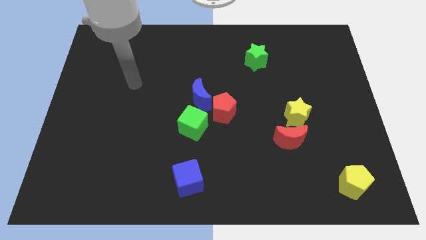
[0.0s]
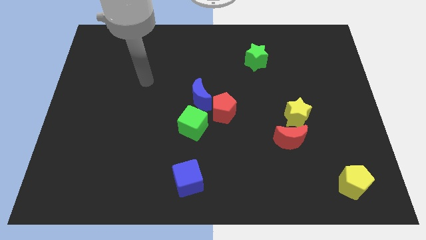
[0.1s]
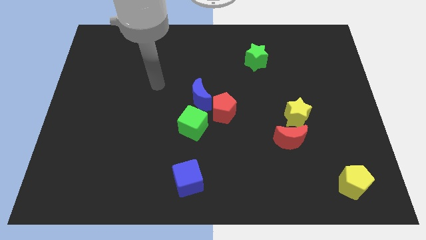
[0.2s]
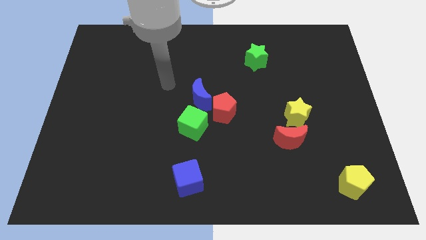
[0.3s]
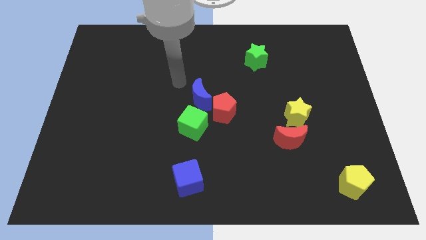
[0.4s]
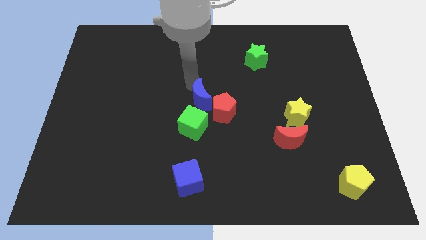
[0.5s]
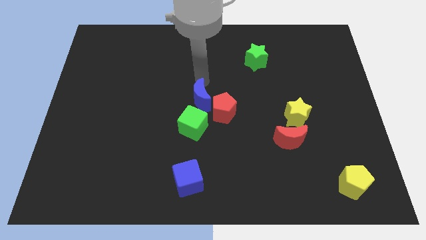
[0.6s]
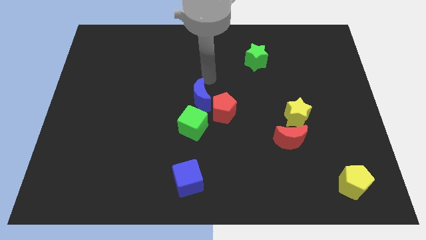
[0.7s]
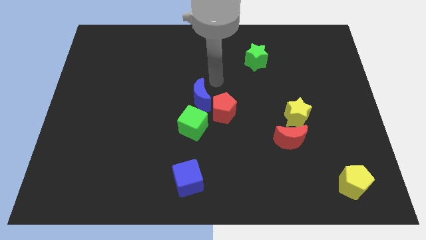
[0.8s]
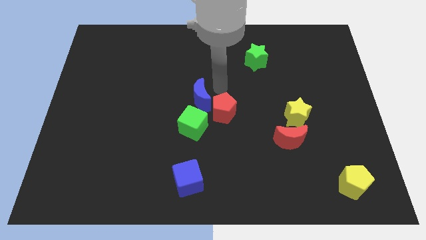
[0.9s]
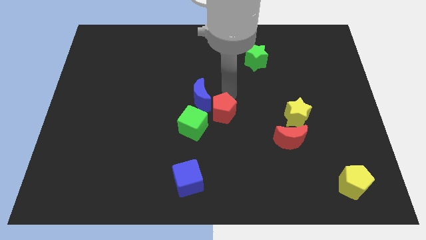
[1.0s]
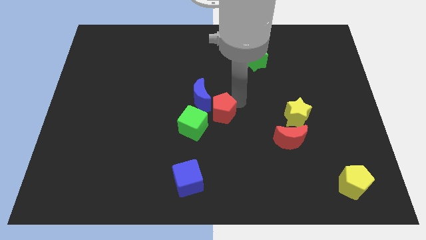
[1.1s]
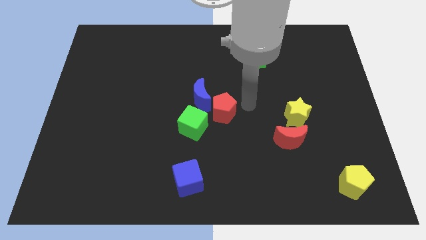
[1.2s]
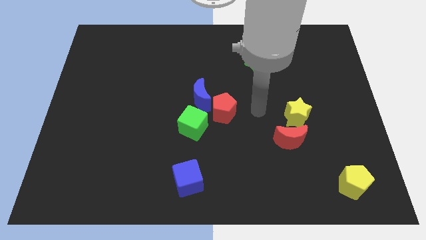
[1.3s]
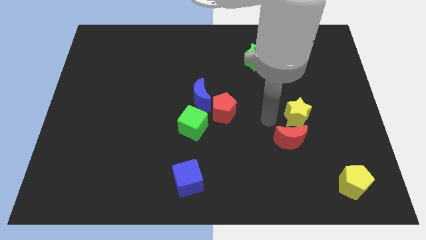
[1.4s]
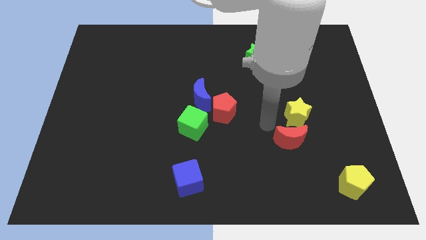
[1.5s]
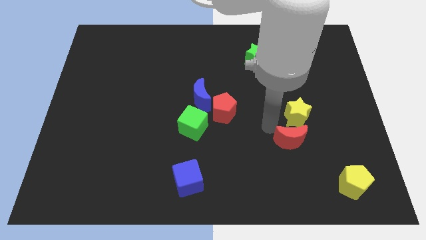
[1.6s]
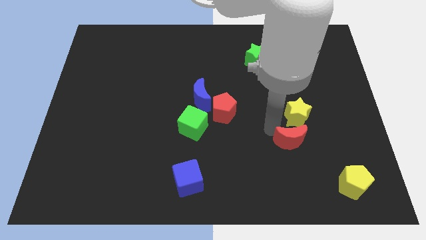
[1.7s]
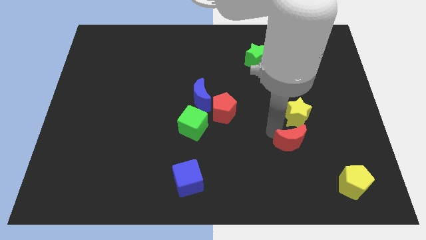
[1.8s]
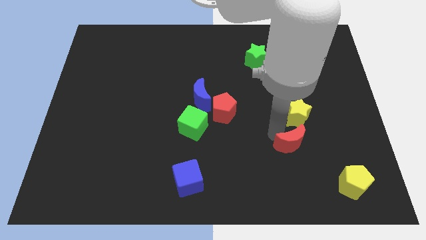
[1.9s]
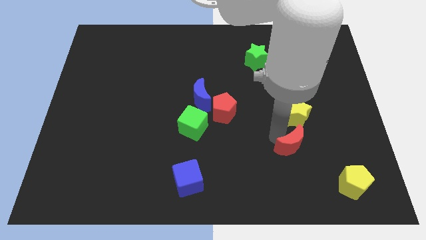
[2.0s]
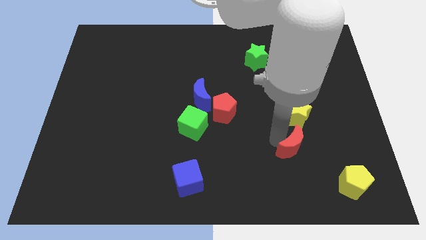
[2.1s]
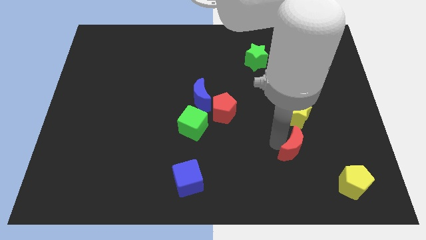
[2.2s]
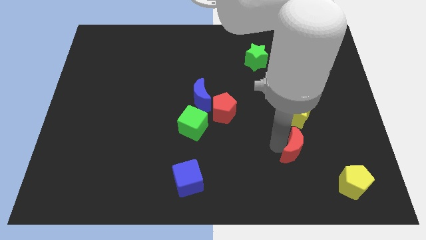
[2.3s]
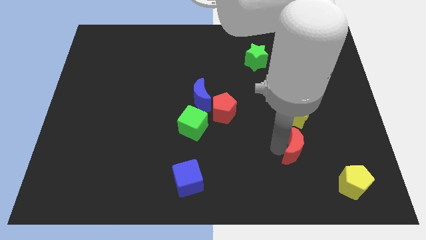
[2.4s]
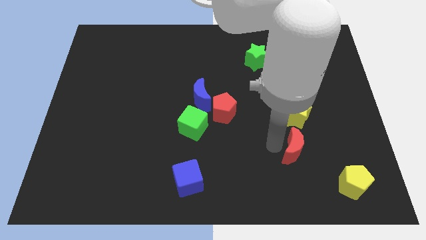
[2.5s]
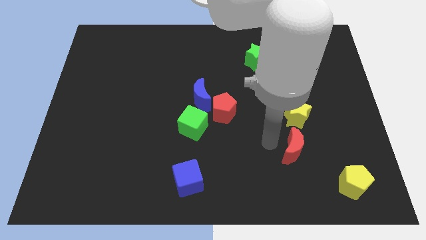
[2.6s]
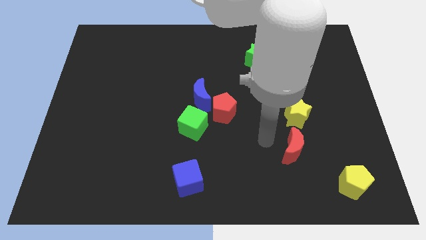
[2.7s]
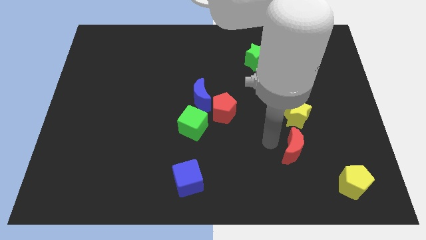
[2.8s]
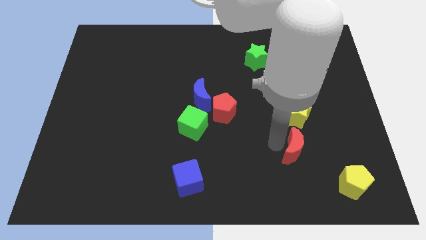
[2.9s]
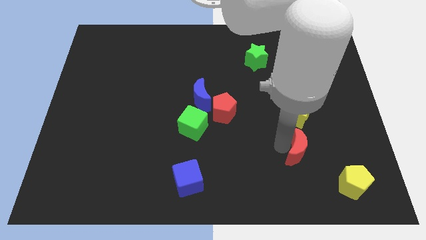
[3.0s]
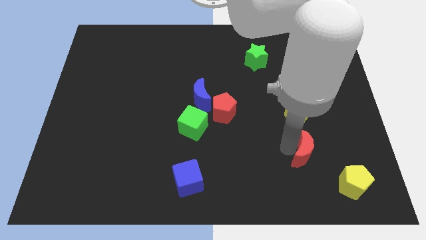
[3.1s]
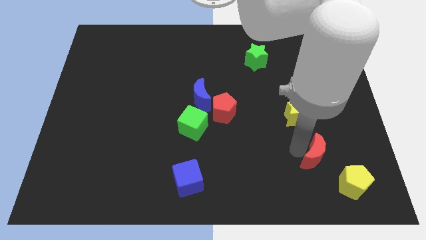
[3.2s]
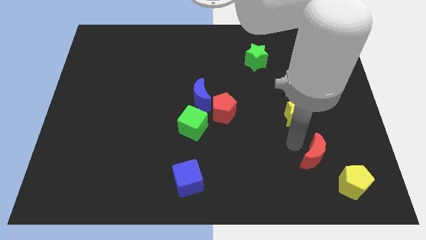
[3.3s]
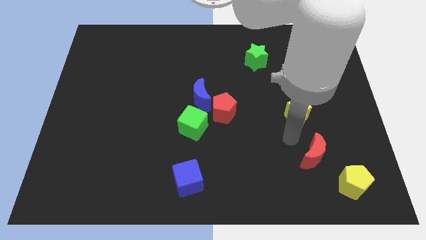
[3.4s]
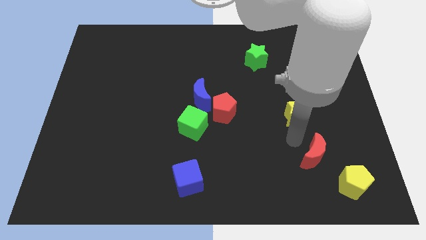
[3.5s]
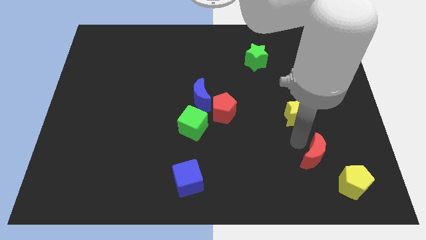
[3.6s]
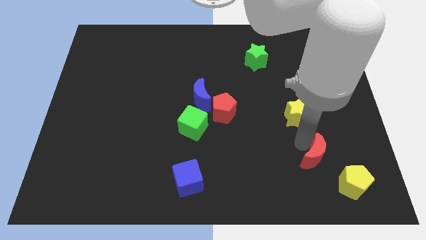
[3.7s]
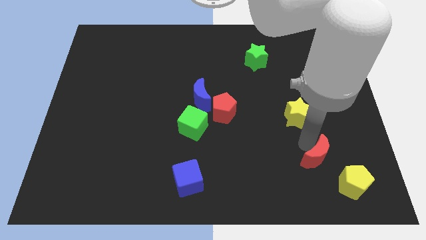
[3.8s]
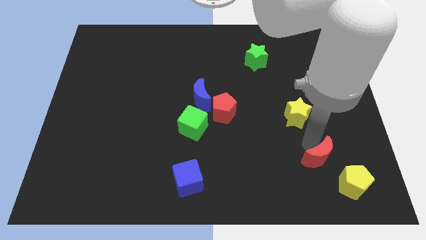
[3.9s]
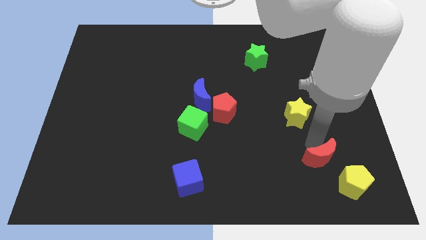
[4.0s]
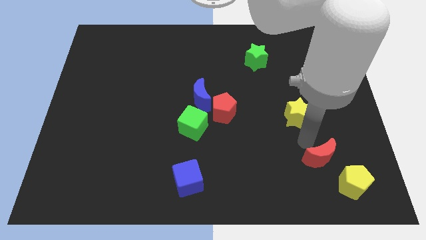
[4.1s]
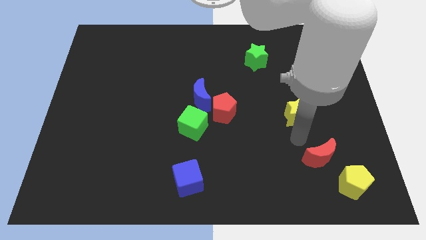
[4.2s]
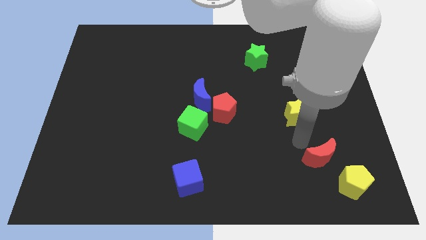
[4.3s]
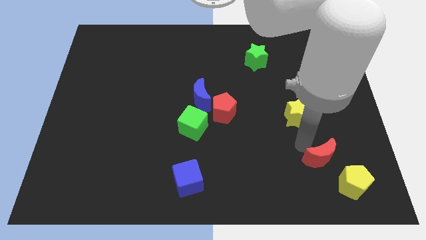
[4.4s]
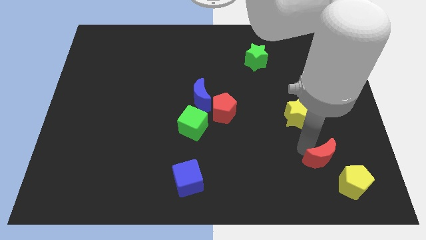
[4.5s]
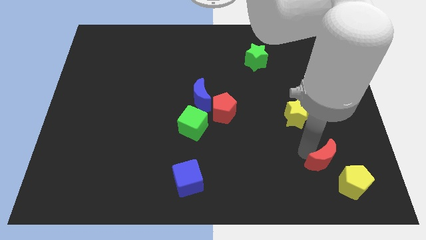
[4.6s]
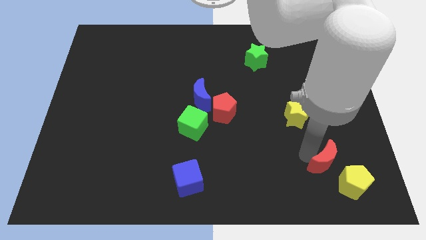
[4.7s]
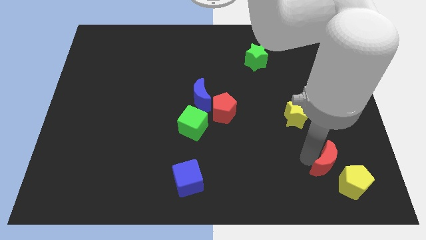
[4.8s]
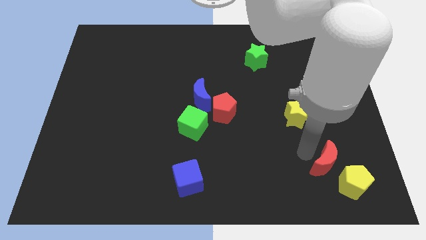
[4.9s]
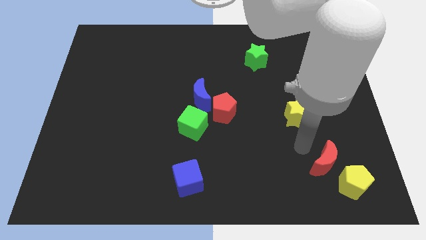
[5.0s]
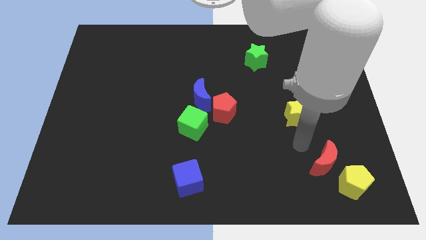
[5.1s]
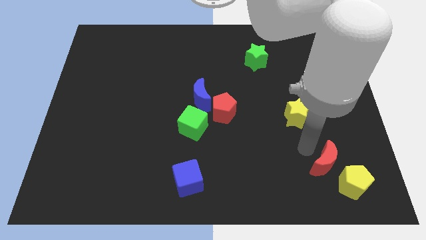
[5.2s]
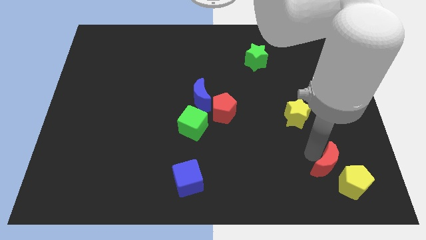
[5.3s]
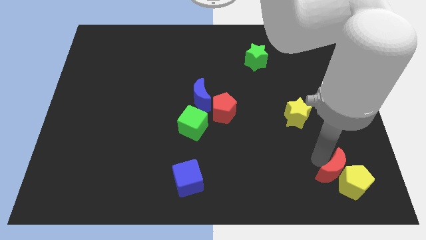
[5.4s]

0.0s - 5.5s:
slide the red moon next to the yellow pentagon

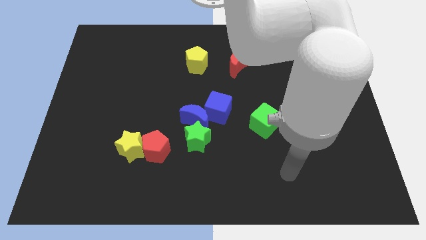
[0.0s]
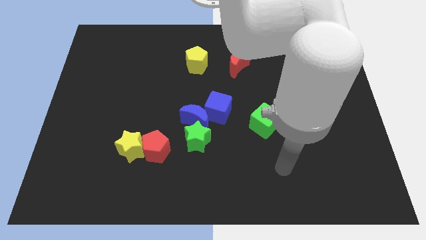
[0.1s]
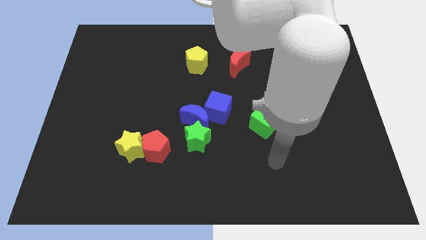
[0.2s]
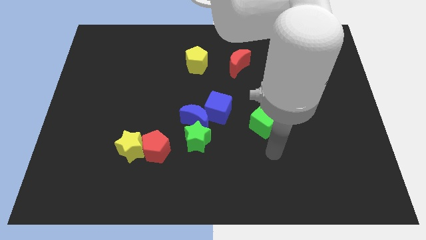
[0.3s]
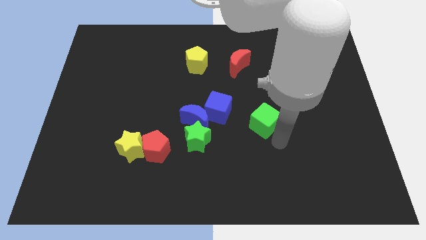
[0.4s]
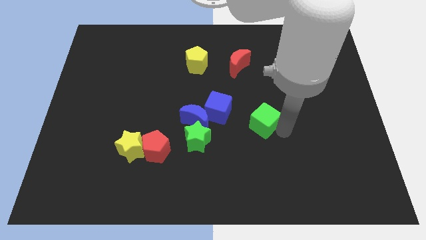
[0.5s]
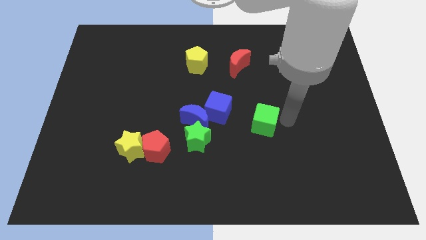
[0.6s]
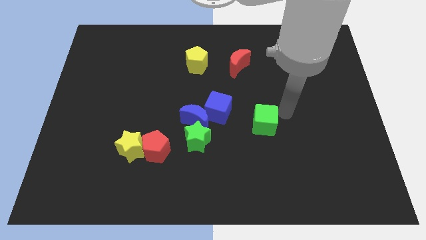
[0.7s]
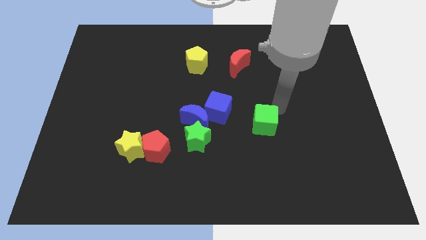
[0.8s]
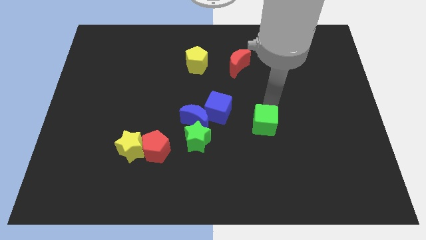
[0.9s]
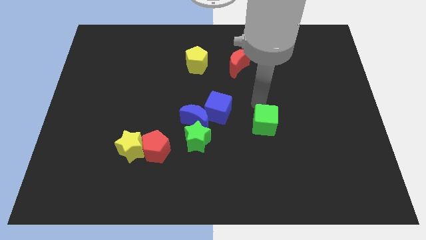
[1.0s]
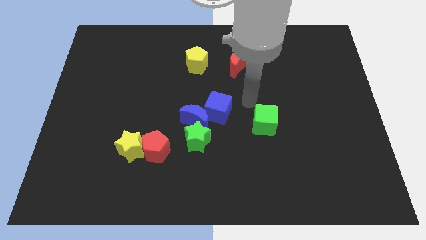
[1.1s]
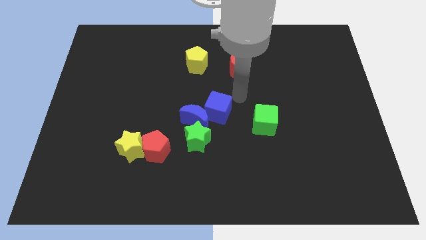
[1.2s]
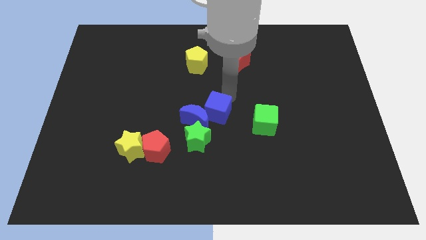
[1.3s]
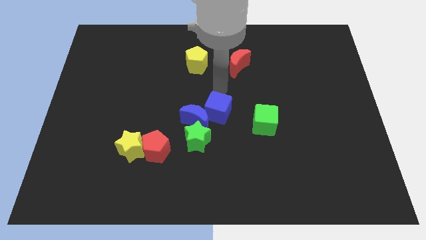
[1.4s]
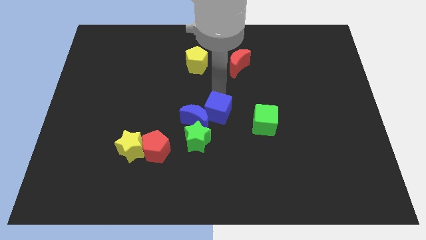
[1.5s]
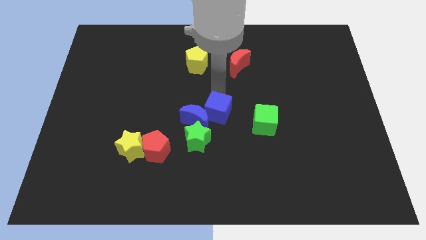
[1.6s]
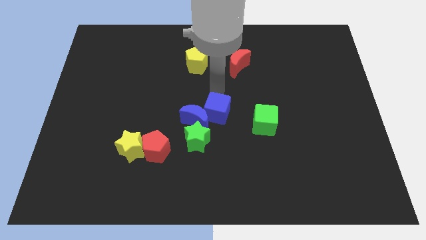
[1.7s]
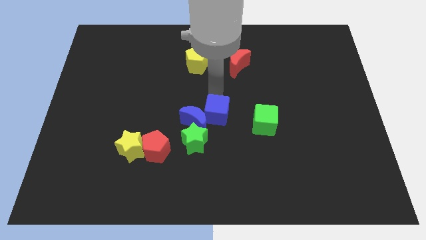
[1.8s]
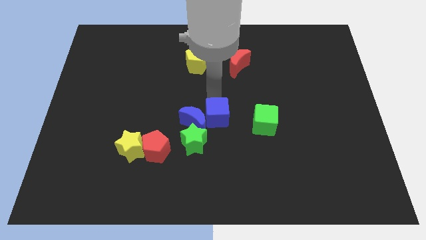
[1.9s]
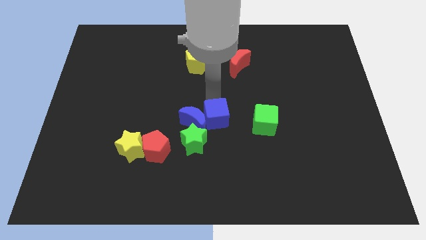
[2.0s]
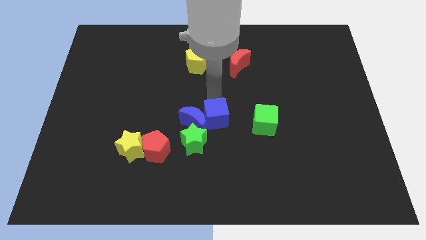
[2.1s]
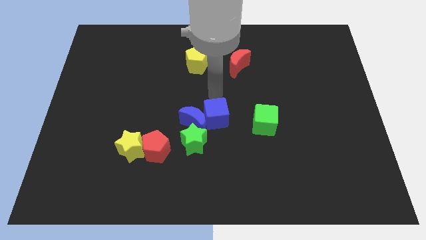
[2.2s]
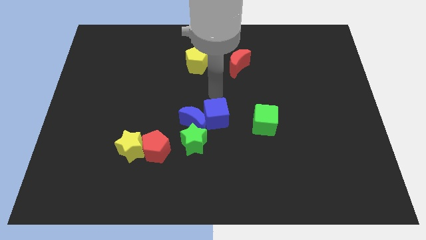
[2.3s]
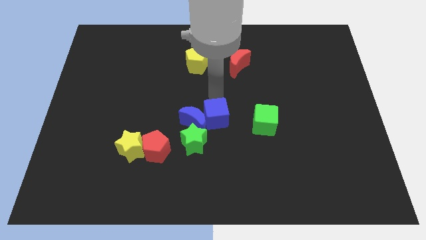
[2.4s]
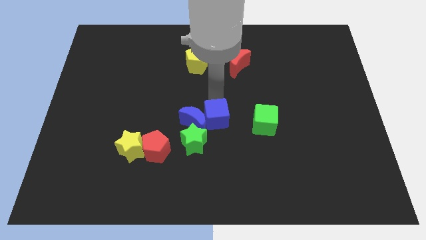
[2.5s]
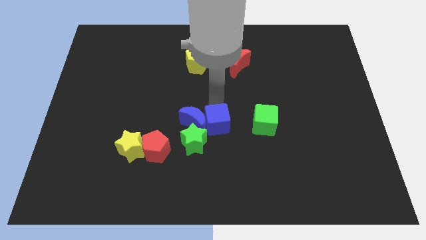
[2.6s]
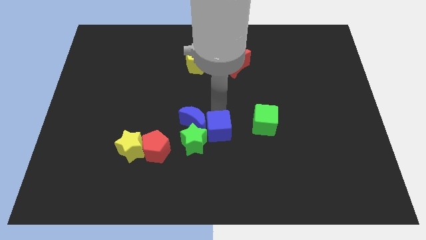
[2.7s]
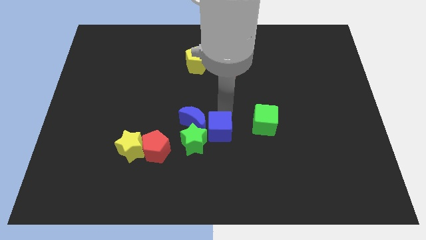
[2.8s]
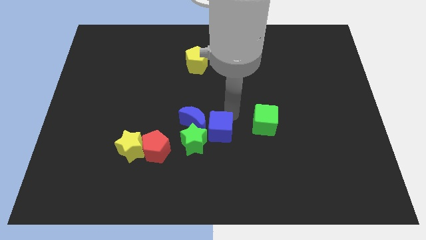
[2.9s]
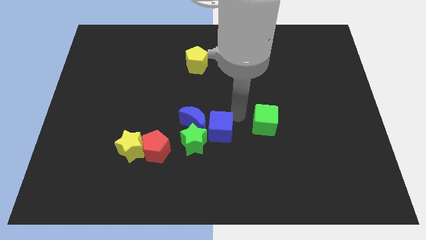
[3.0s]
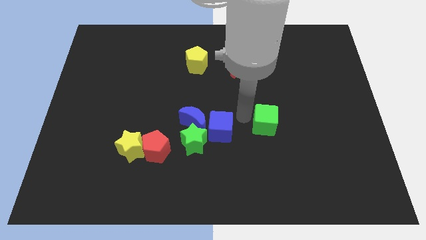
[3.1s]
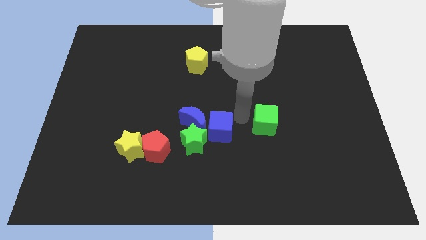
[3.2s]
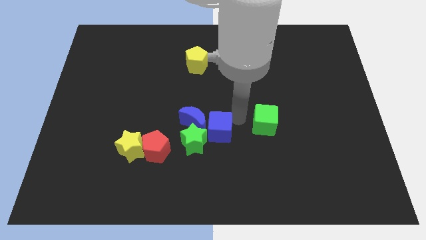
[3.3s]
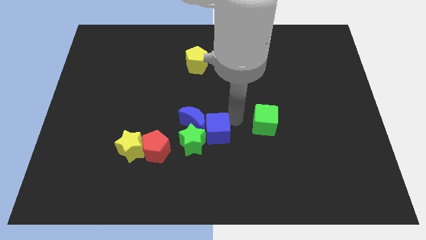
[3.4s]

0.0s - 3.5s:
slide the blue cube close to the green star
